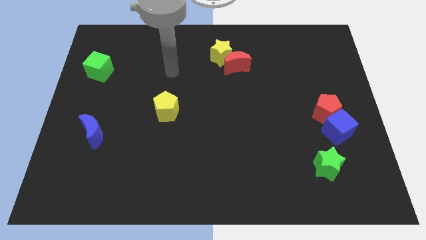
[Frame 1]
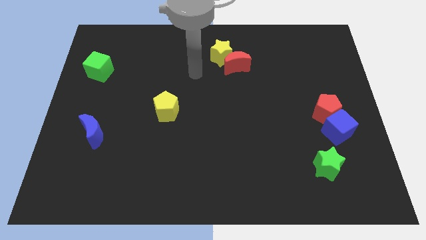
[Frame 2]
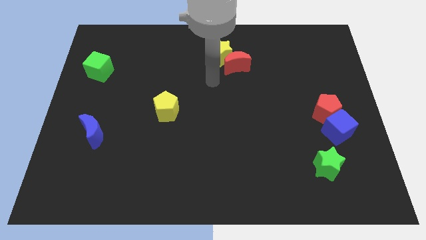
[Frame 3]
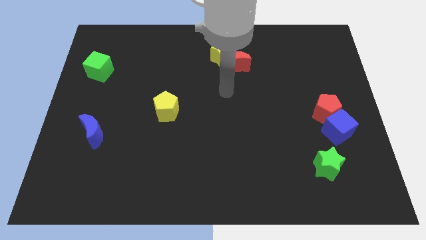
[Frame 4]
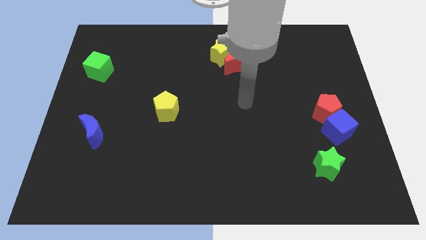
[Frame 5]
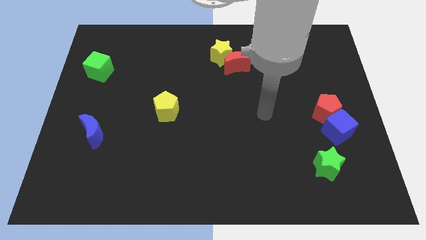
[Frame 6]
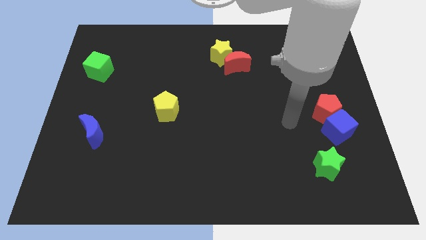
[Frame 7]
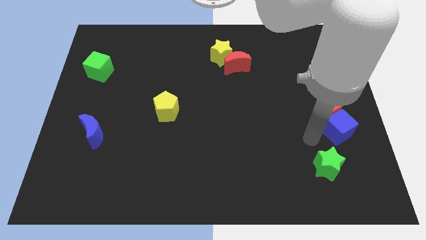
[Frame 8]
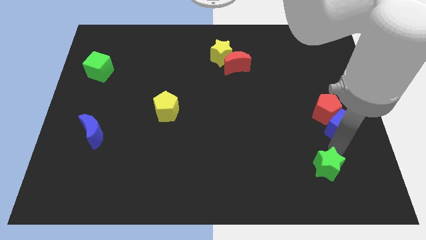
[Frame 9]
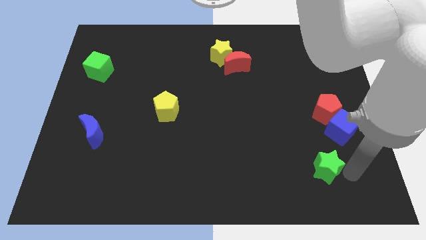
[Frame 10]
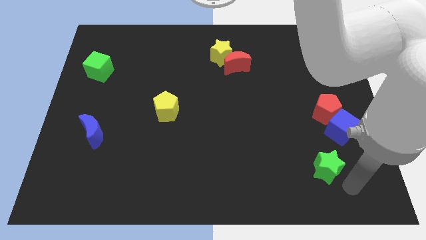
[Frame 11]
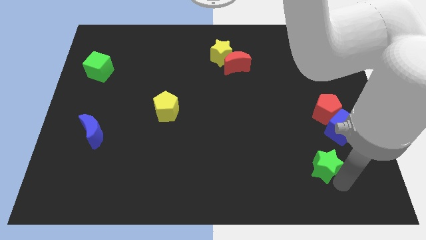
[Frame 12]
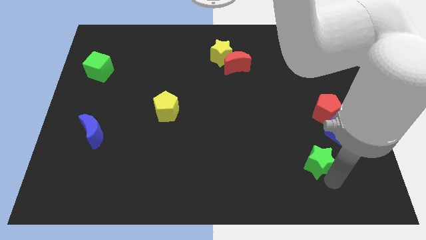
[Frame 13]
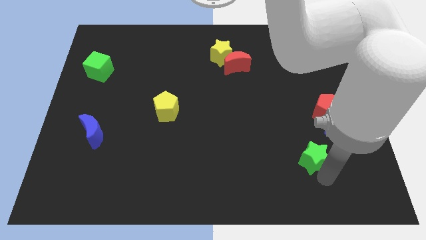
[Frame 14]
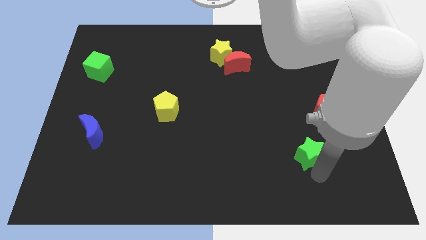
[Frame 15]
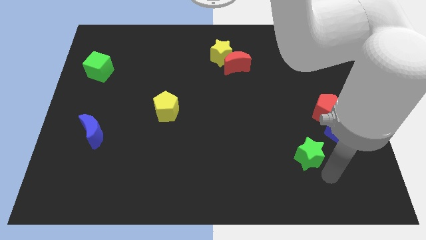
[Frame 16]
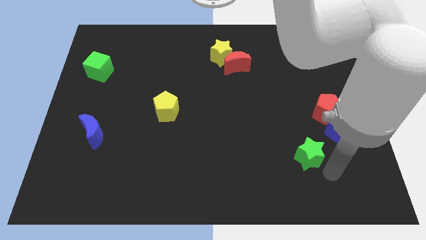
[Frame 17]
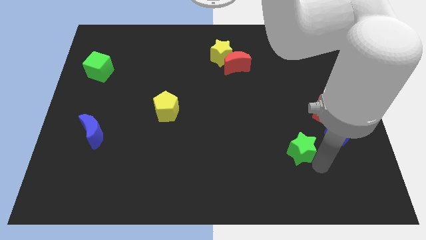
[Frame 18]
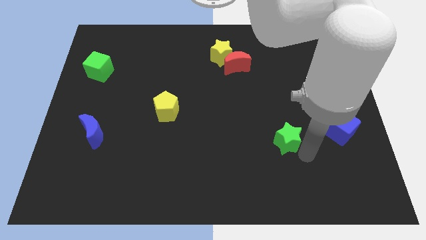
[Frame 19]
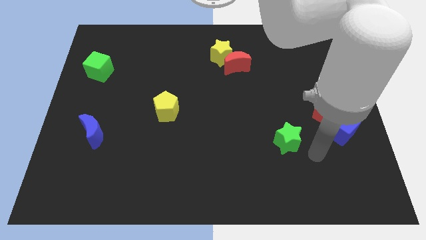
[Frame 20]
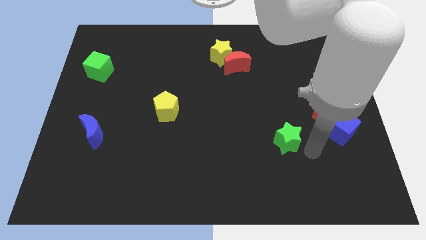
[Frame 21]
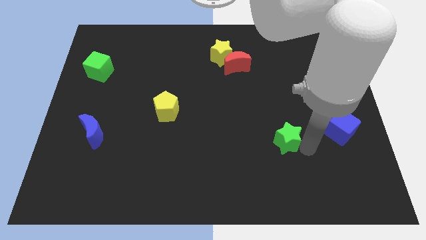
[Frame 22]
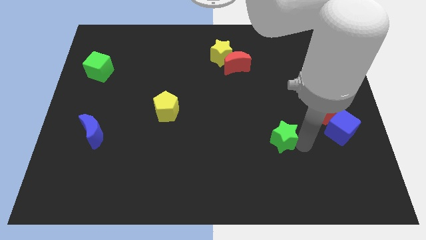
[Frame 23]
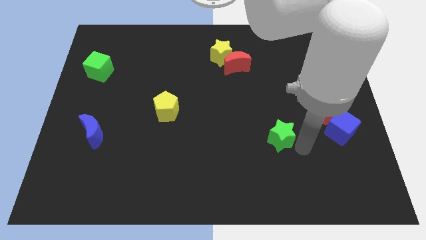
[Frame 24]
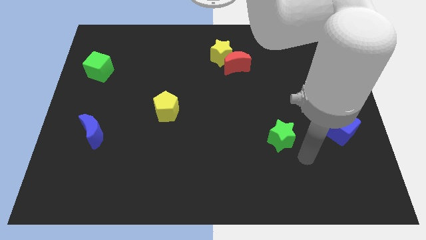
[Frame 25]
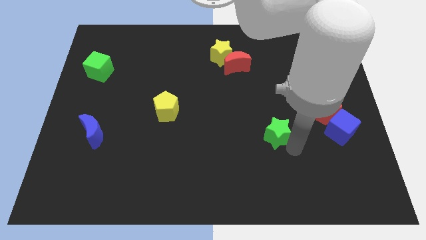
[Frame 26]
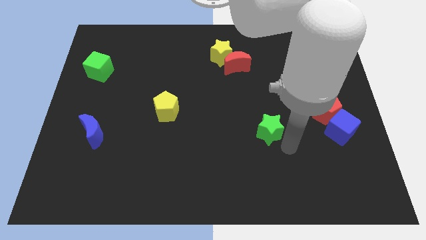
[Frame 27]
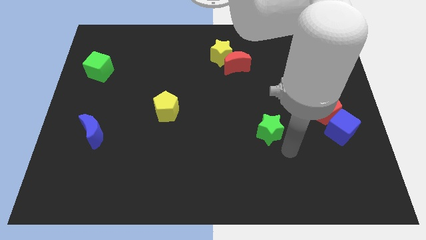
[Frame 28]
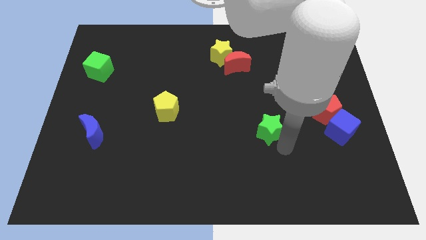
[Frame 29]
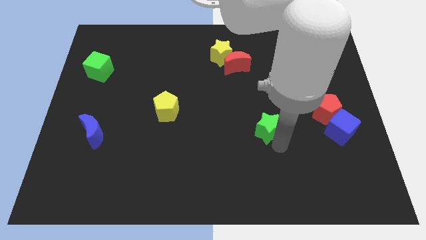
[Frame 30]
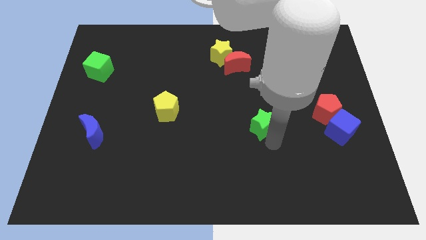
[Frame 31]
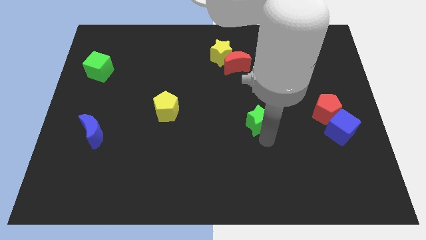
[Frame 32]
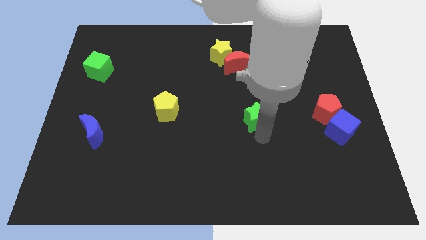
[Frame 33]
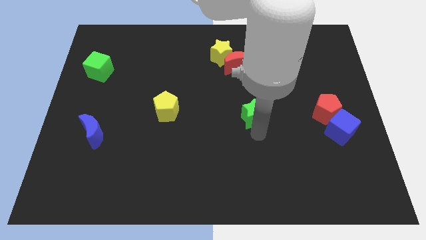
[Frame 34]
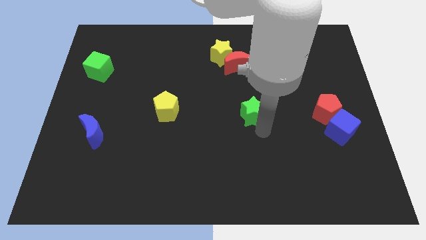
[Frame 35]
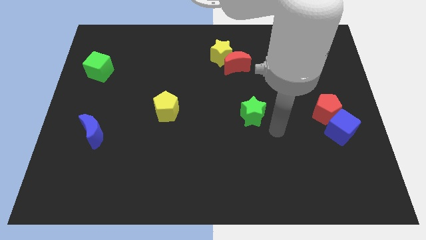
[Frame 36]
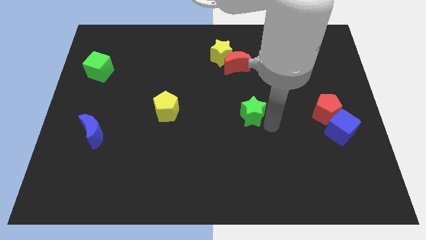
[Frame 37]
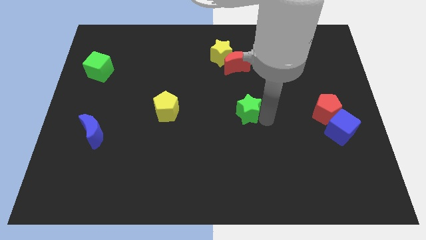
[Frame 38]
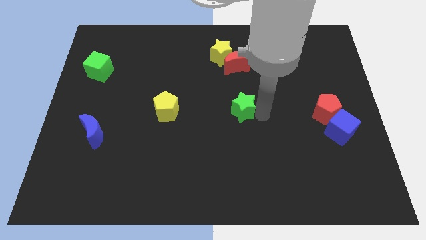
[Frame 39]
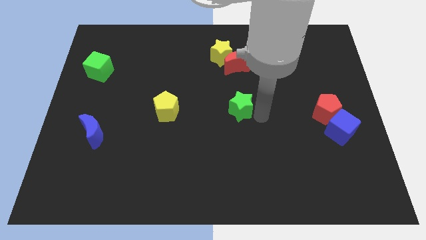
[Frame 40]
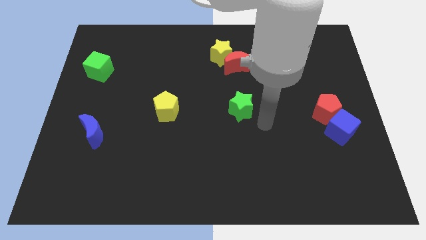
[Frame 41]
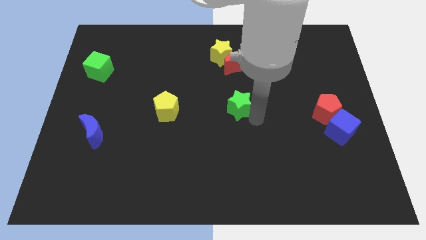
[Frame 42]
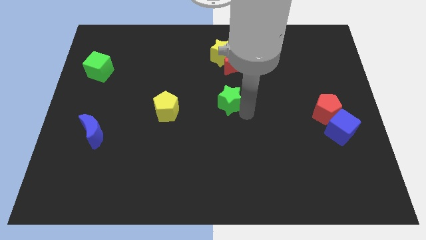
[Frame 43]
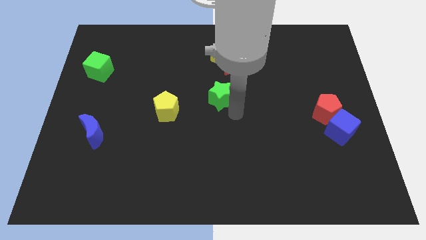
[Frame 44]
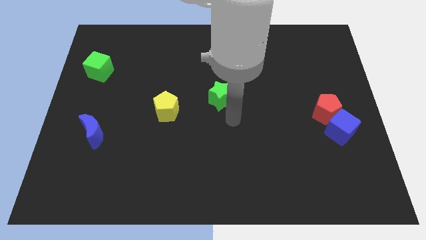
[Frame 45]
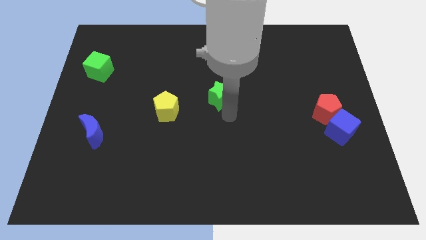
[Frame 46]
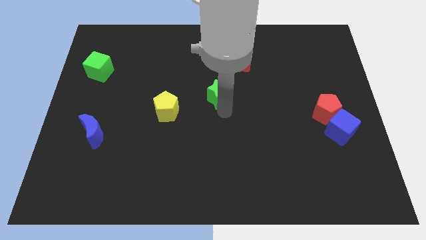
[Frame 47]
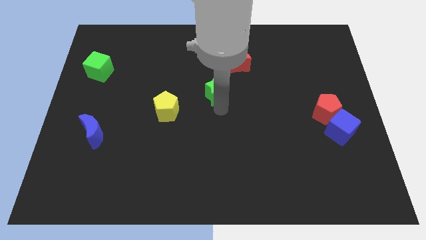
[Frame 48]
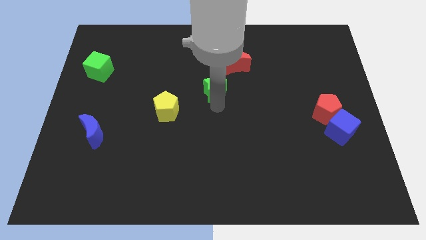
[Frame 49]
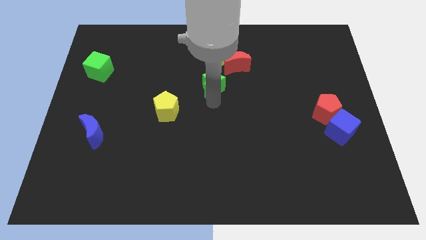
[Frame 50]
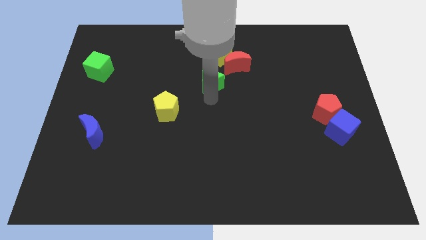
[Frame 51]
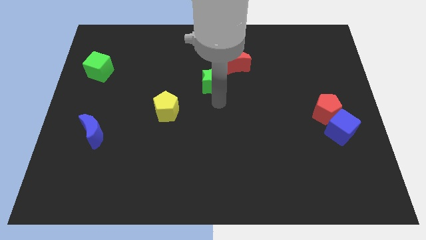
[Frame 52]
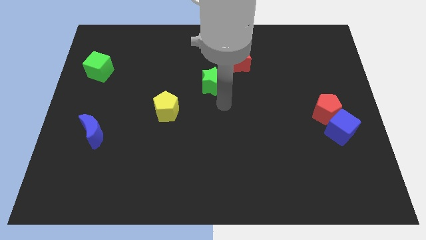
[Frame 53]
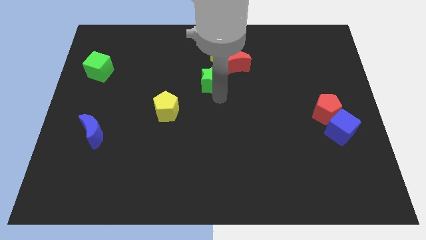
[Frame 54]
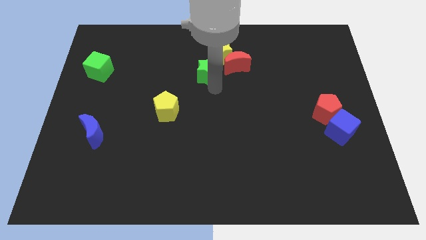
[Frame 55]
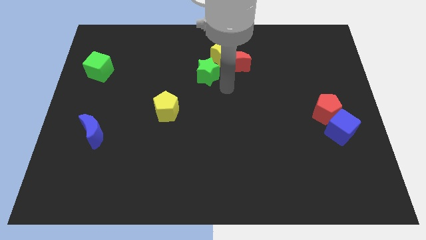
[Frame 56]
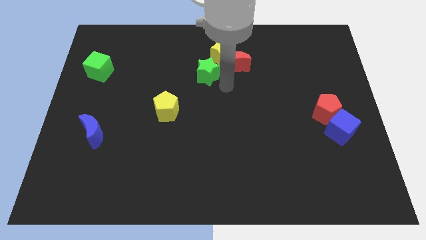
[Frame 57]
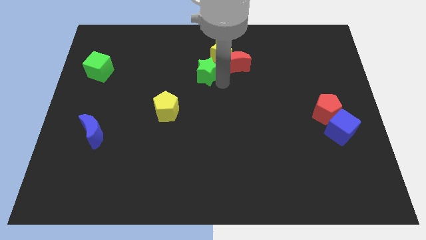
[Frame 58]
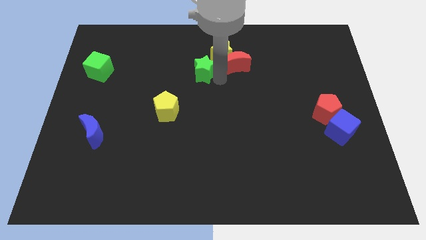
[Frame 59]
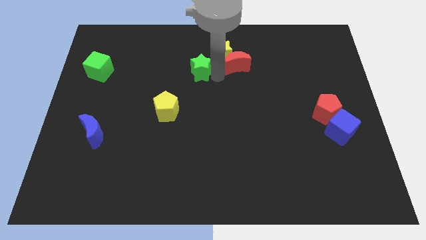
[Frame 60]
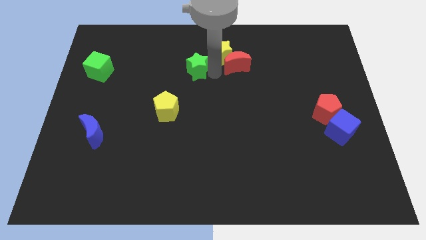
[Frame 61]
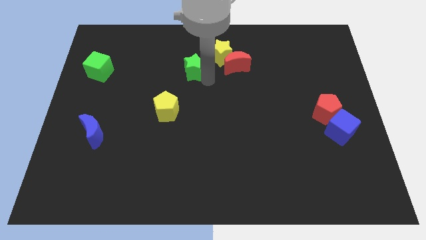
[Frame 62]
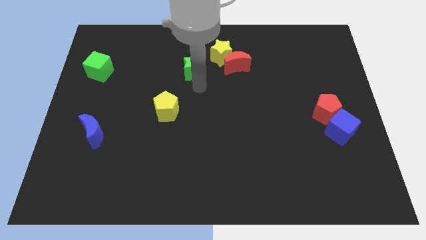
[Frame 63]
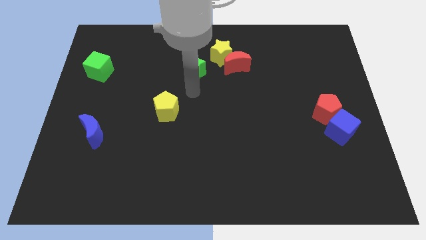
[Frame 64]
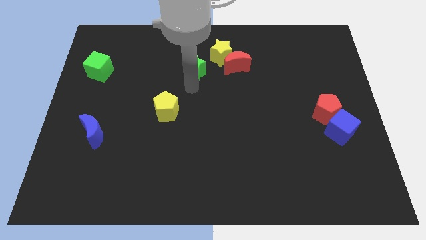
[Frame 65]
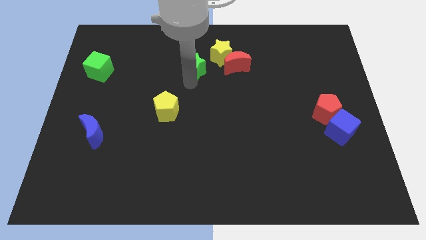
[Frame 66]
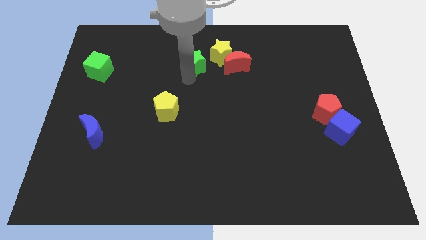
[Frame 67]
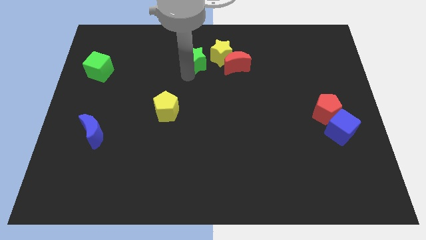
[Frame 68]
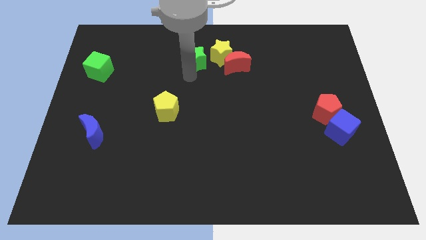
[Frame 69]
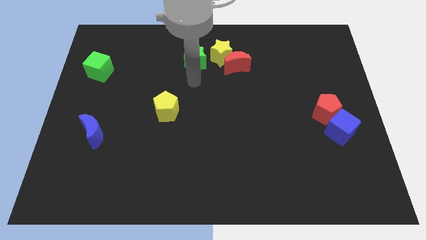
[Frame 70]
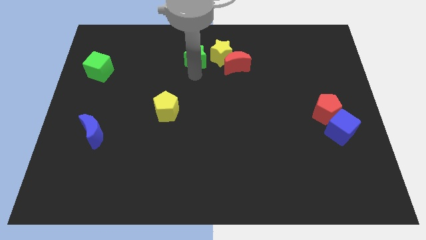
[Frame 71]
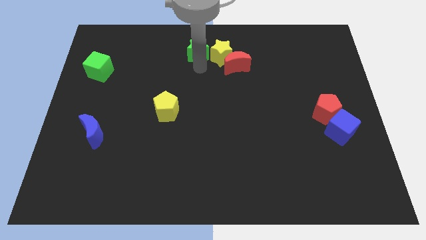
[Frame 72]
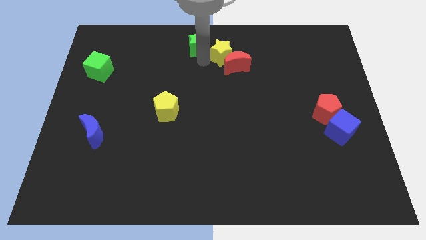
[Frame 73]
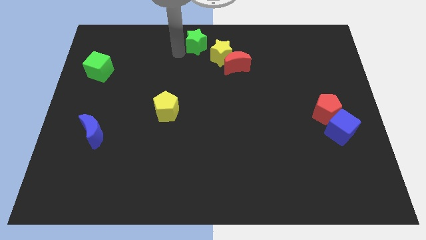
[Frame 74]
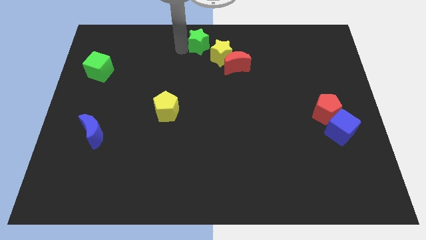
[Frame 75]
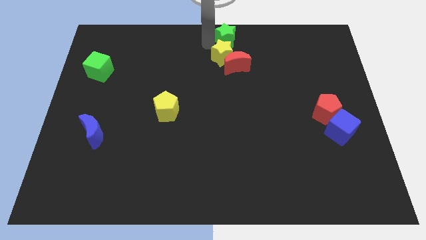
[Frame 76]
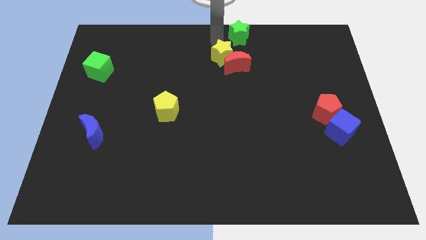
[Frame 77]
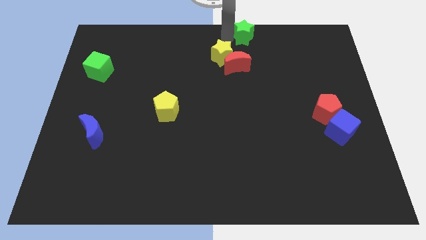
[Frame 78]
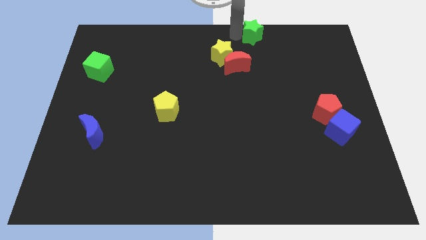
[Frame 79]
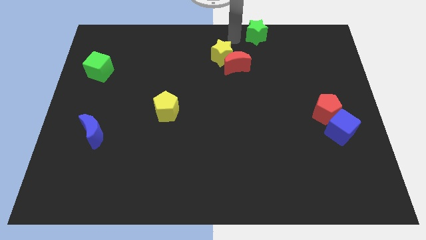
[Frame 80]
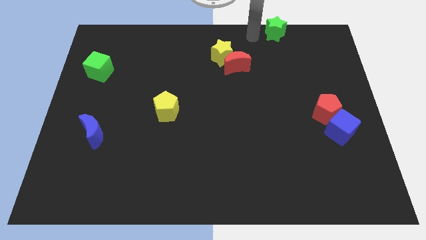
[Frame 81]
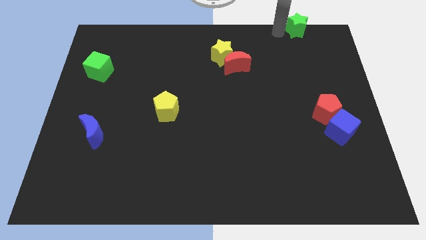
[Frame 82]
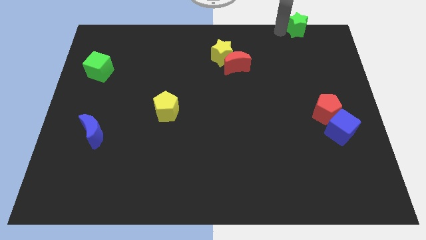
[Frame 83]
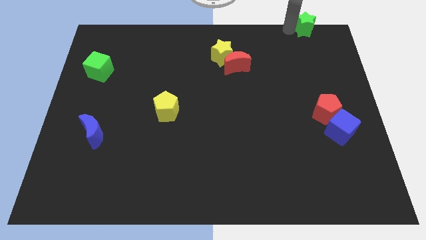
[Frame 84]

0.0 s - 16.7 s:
slide the green star to the top right of the board
